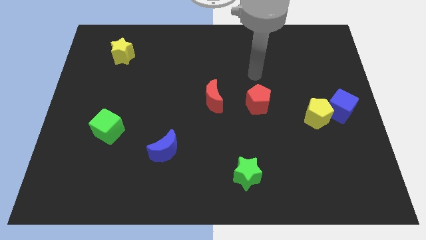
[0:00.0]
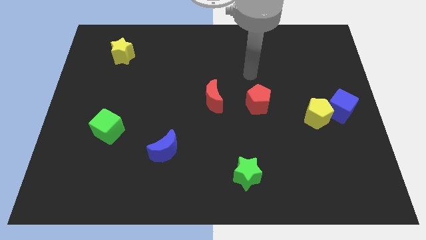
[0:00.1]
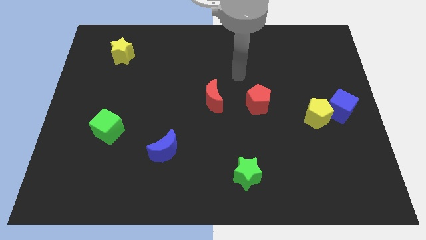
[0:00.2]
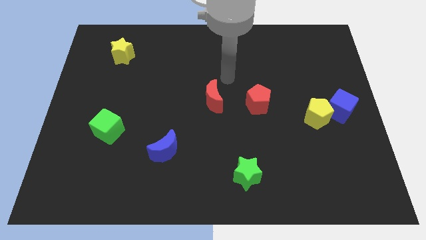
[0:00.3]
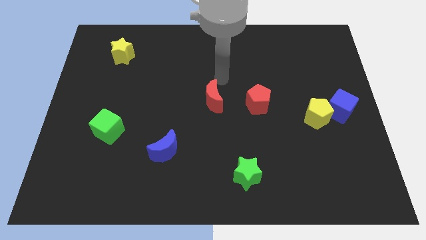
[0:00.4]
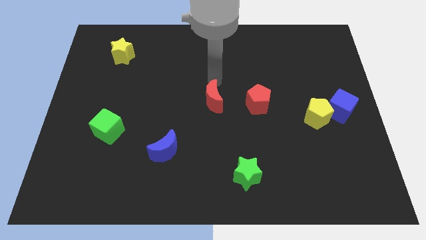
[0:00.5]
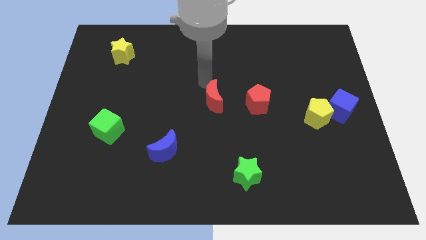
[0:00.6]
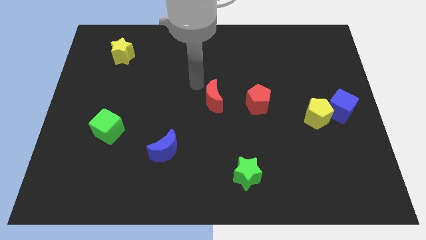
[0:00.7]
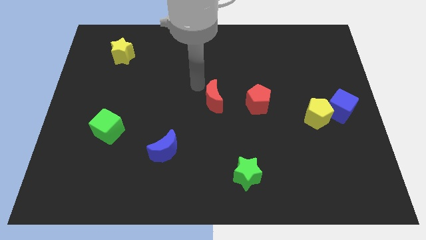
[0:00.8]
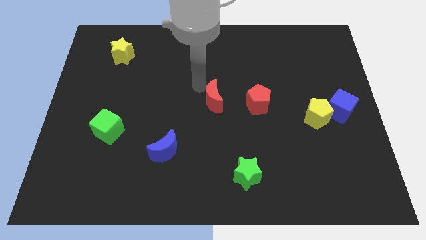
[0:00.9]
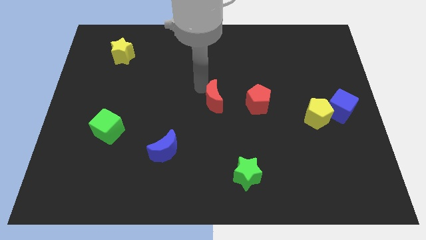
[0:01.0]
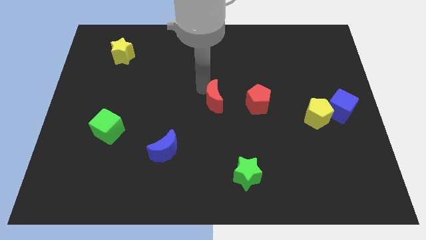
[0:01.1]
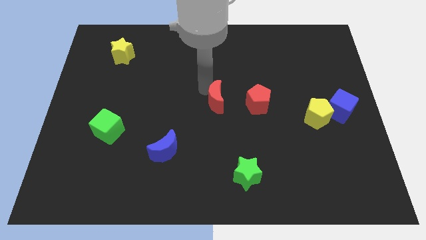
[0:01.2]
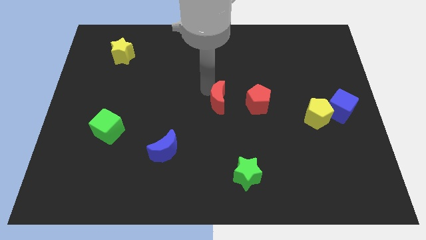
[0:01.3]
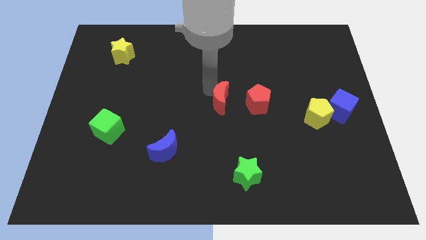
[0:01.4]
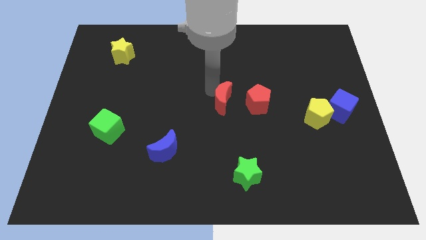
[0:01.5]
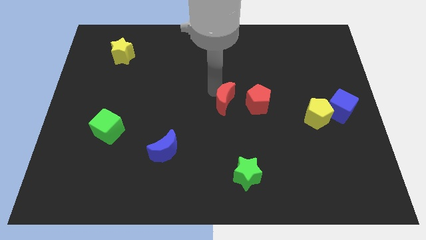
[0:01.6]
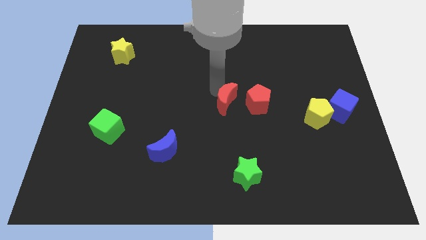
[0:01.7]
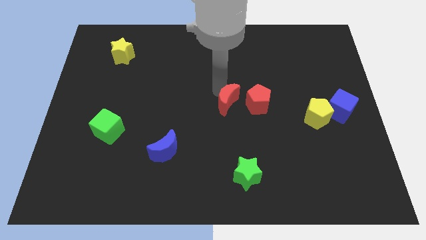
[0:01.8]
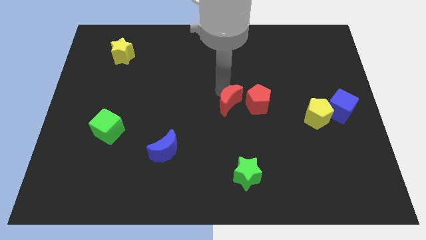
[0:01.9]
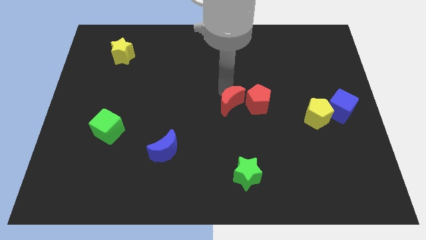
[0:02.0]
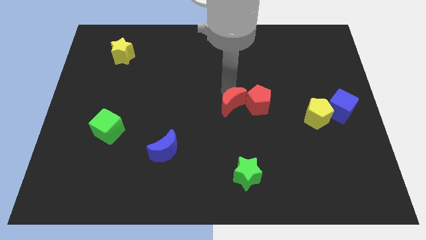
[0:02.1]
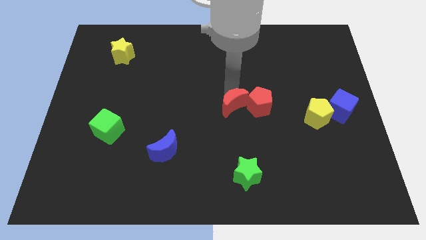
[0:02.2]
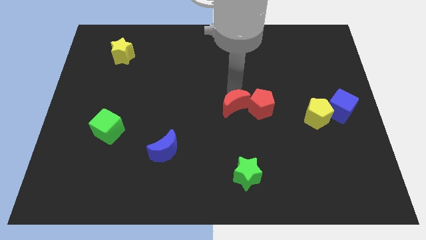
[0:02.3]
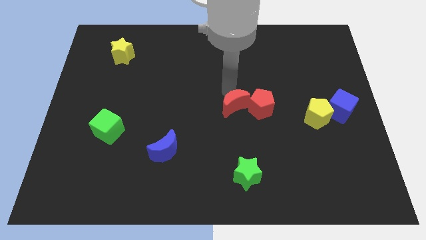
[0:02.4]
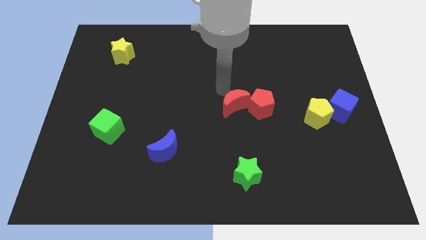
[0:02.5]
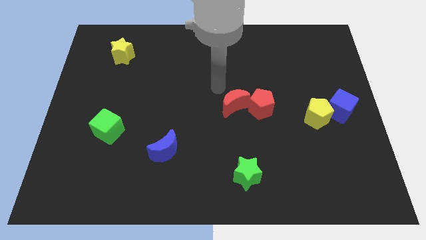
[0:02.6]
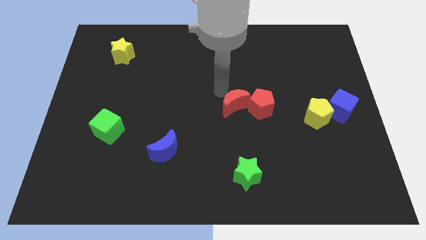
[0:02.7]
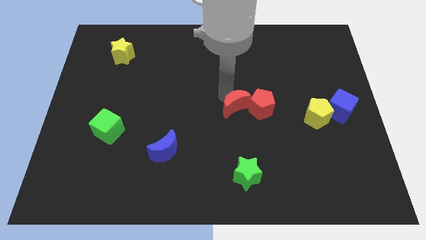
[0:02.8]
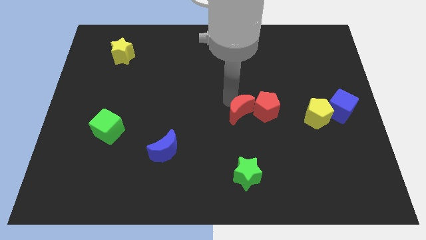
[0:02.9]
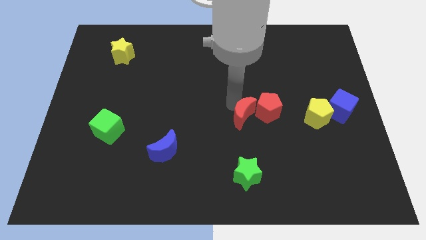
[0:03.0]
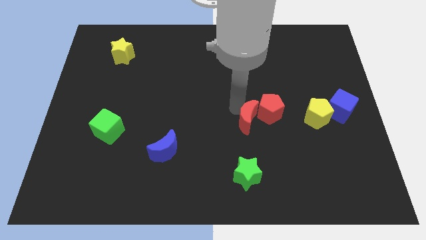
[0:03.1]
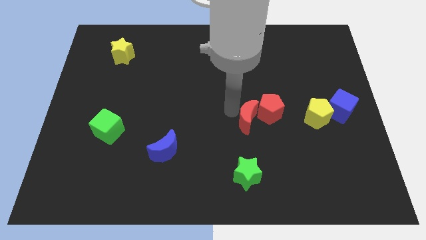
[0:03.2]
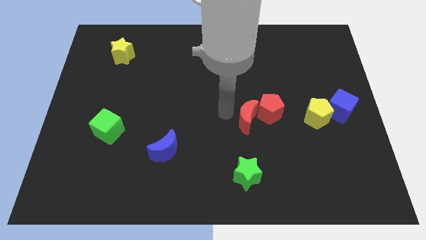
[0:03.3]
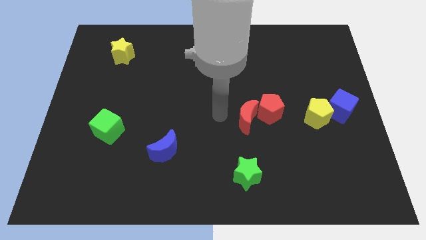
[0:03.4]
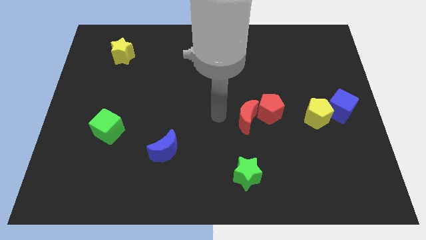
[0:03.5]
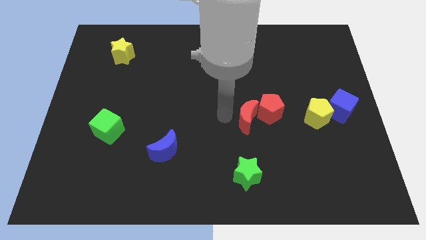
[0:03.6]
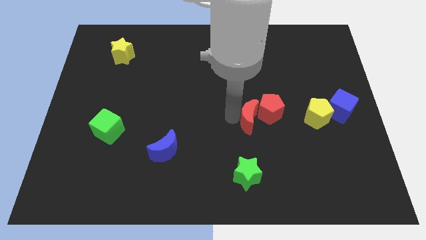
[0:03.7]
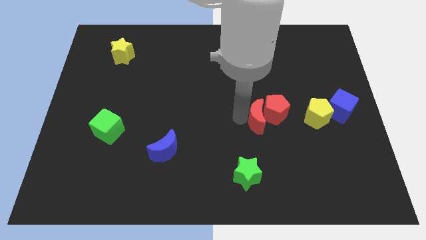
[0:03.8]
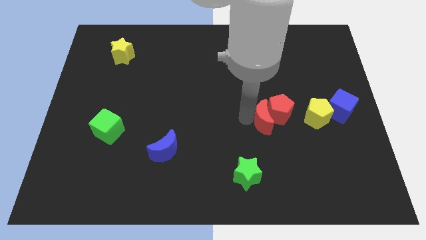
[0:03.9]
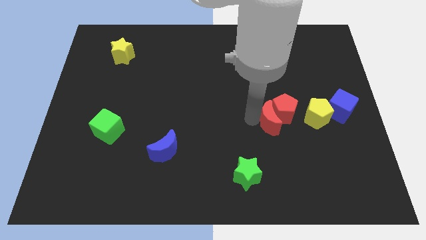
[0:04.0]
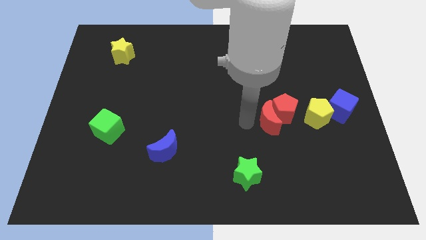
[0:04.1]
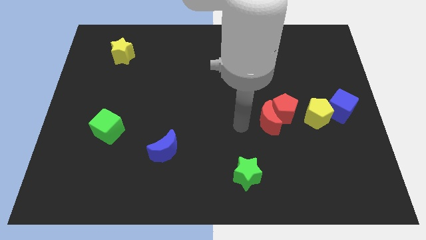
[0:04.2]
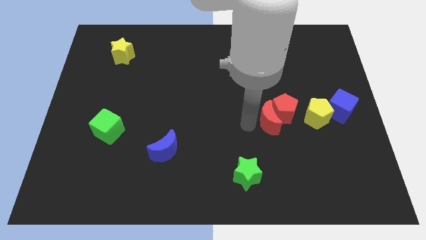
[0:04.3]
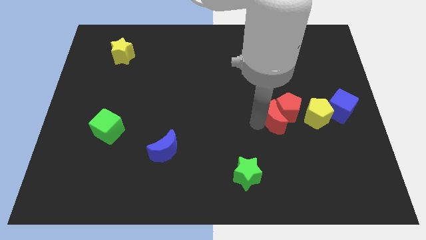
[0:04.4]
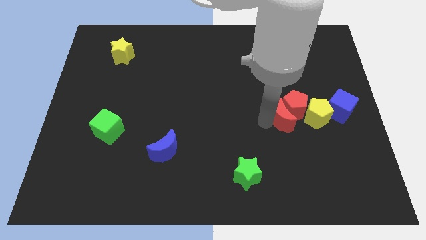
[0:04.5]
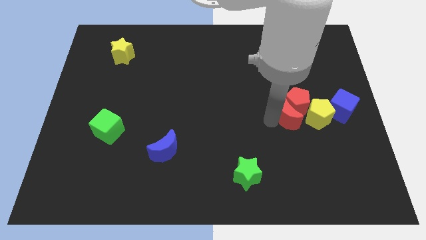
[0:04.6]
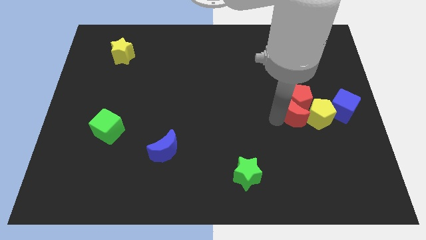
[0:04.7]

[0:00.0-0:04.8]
put the red moon next to the yellow pentagon

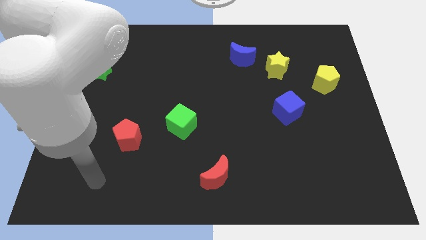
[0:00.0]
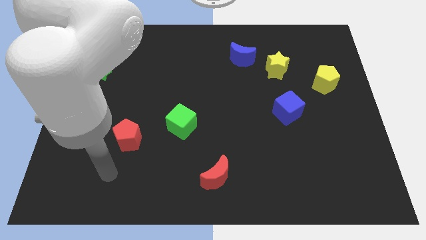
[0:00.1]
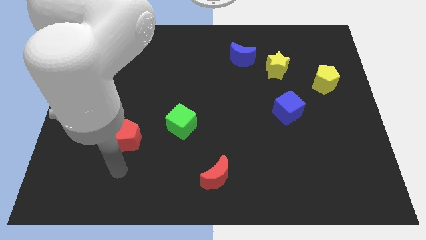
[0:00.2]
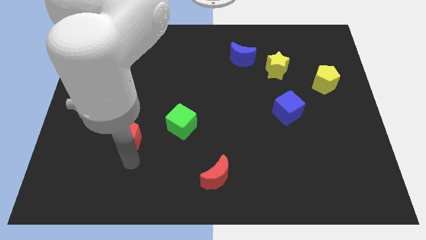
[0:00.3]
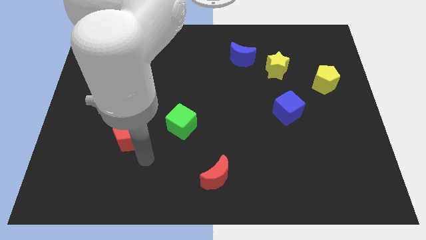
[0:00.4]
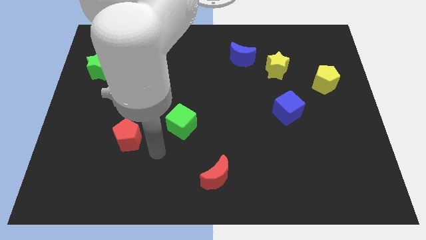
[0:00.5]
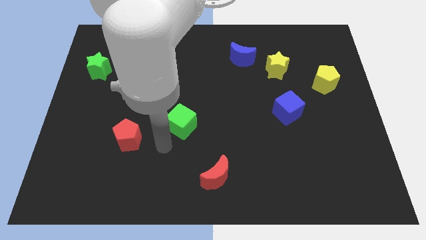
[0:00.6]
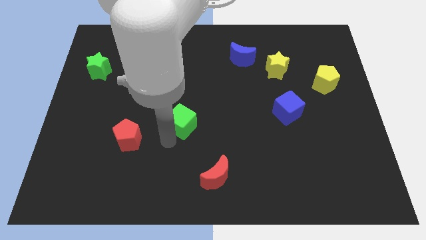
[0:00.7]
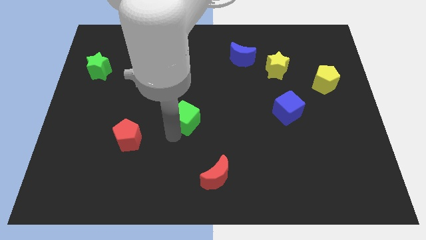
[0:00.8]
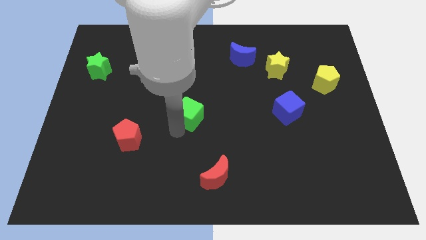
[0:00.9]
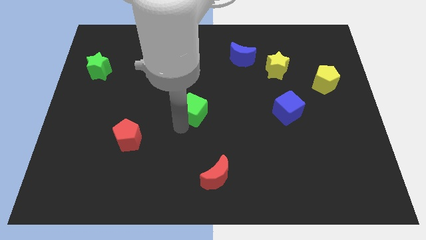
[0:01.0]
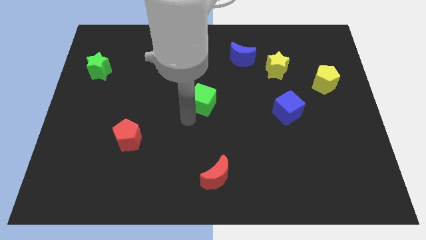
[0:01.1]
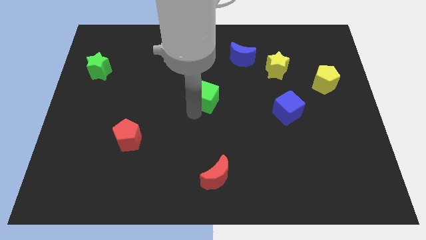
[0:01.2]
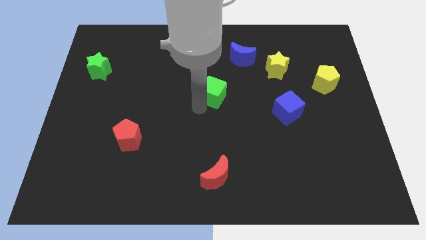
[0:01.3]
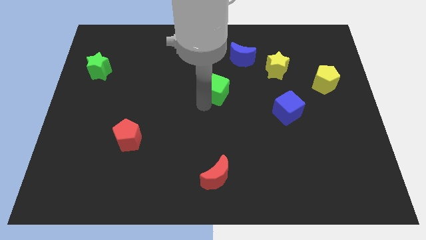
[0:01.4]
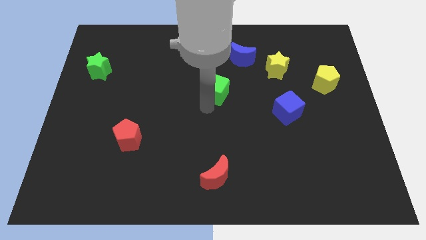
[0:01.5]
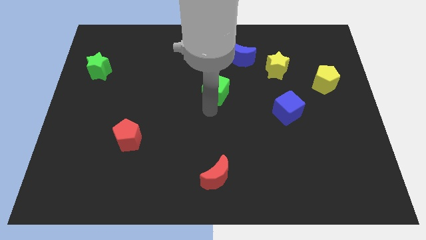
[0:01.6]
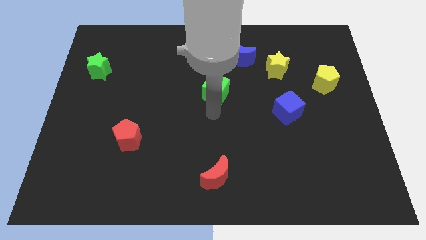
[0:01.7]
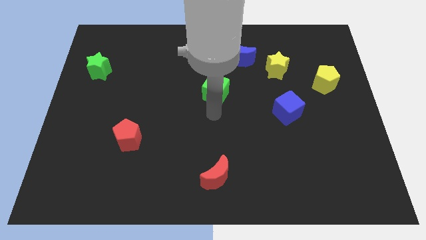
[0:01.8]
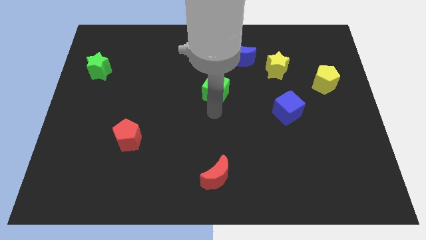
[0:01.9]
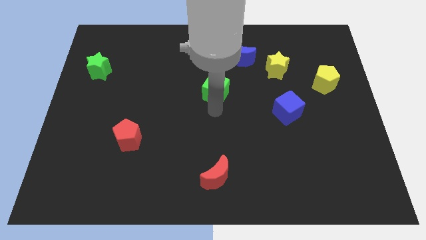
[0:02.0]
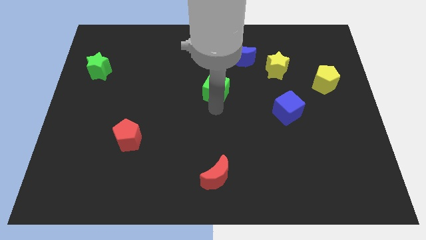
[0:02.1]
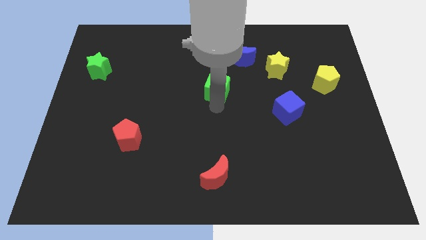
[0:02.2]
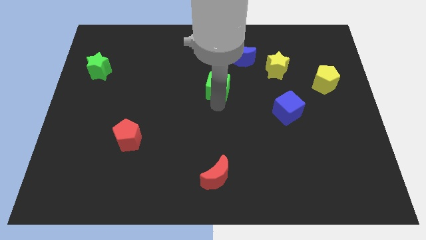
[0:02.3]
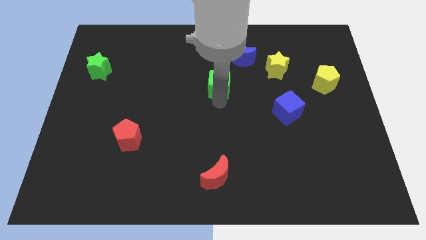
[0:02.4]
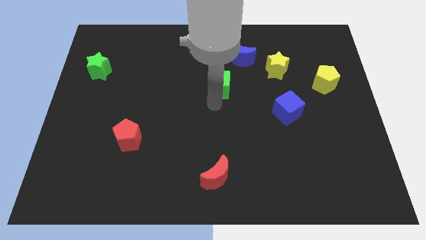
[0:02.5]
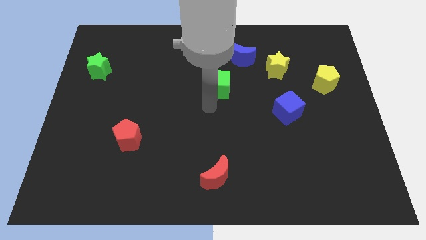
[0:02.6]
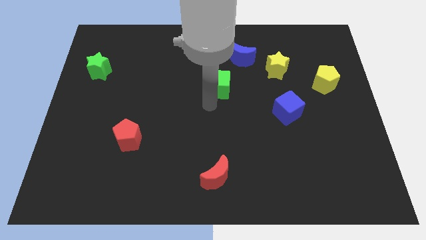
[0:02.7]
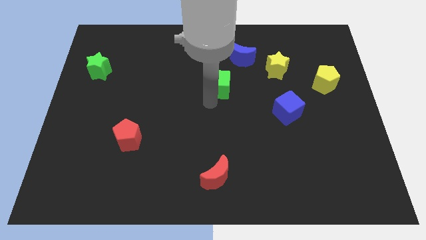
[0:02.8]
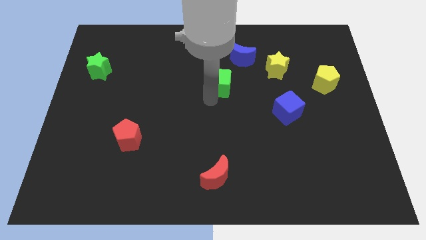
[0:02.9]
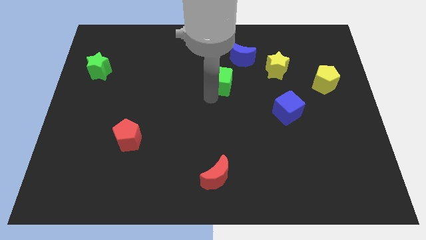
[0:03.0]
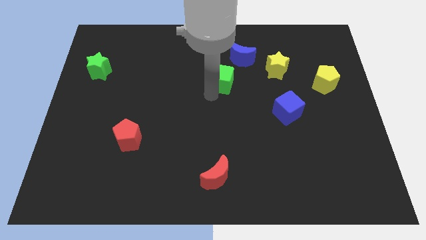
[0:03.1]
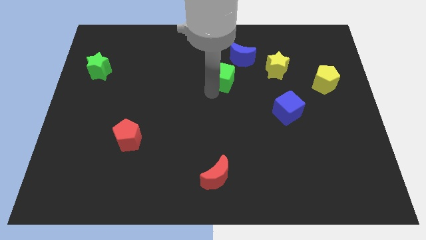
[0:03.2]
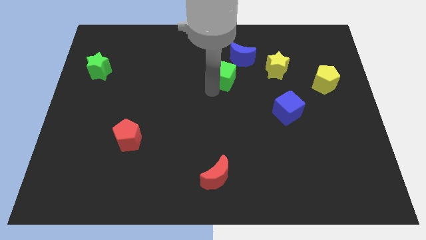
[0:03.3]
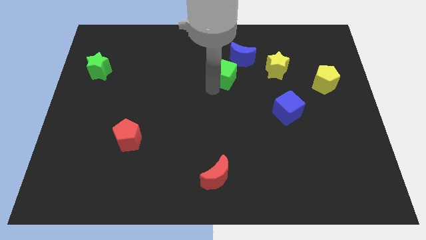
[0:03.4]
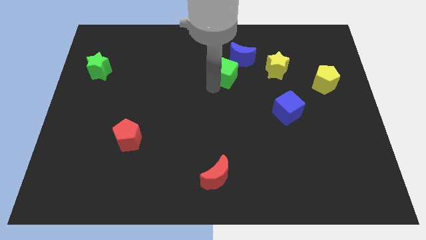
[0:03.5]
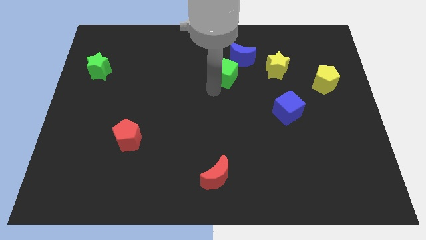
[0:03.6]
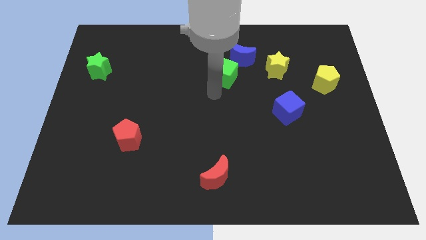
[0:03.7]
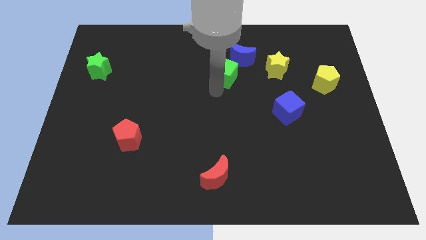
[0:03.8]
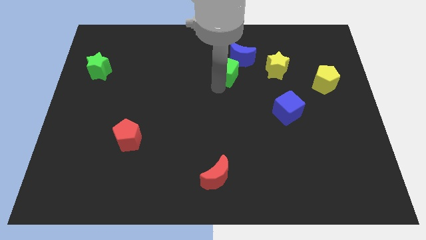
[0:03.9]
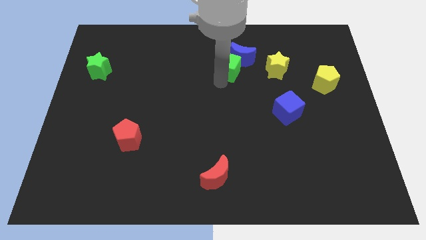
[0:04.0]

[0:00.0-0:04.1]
slide the green cube to the blue moon
